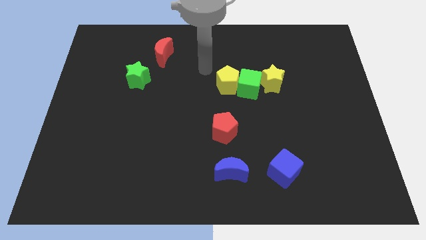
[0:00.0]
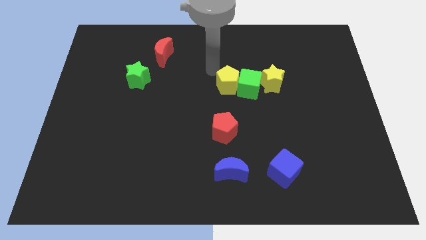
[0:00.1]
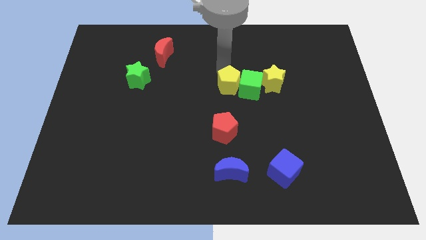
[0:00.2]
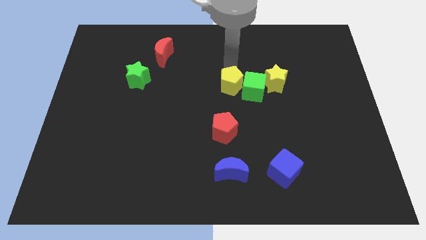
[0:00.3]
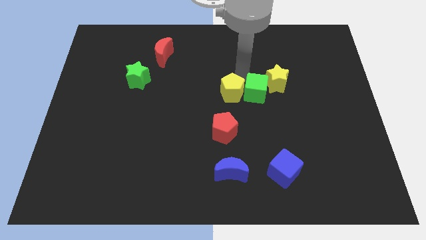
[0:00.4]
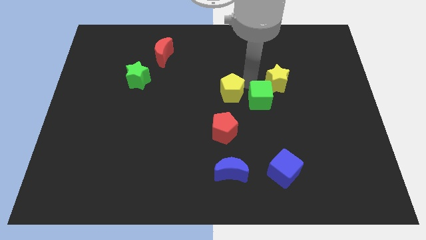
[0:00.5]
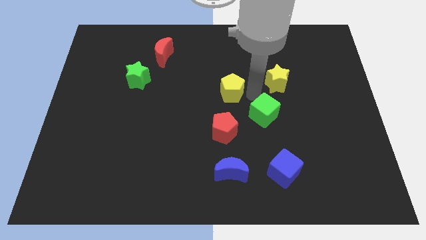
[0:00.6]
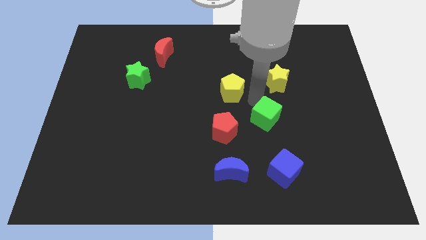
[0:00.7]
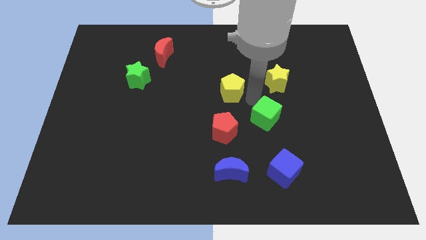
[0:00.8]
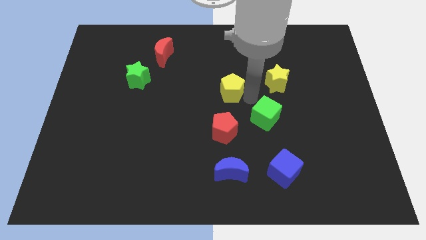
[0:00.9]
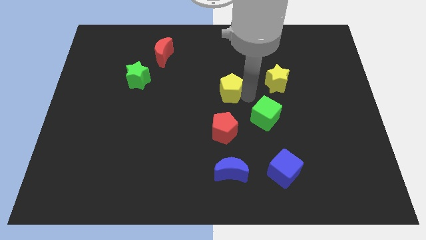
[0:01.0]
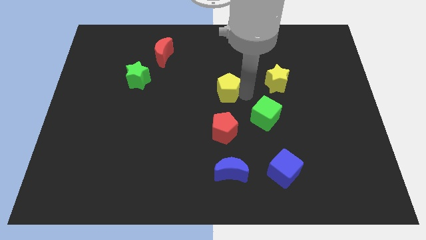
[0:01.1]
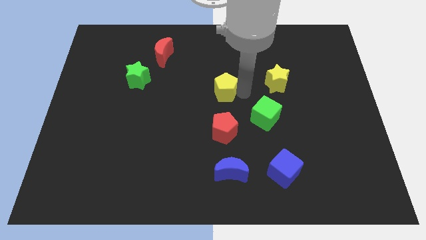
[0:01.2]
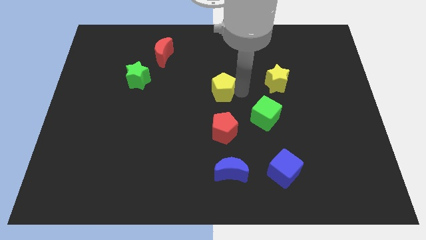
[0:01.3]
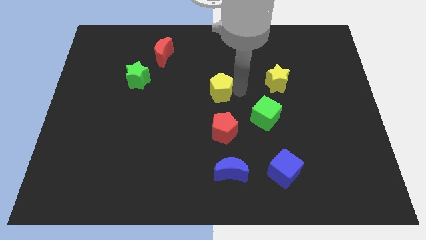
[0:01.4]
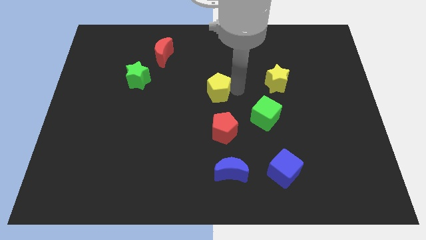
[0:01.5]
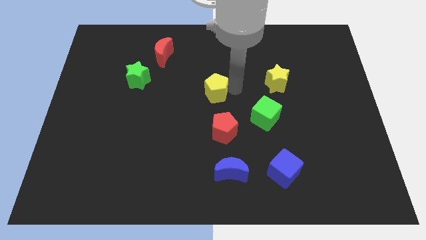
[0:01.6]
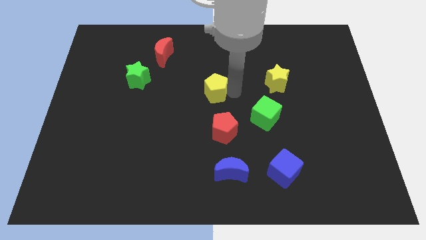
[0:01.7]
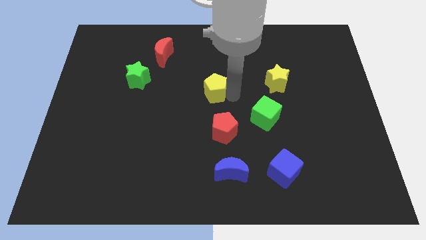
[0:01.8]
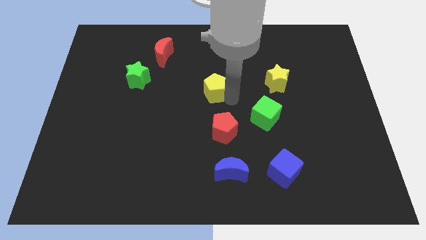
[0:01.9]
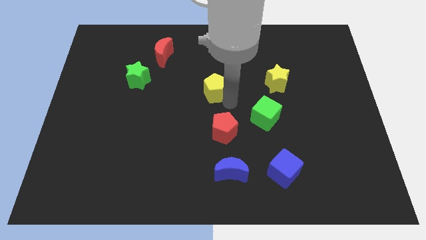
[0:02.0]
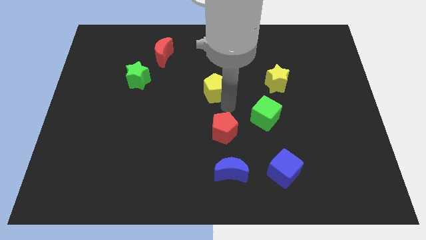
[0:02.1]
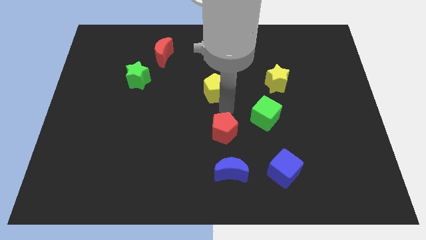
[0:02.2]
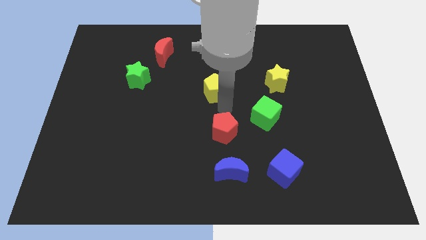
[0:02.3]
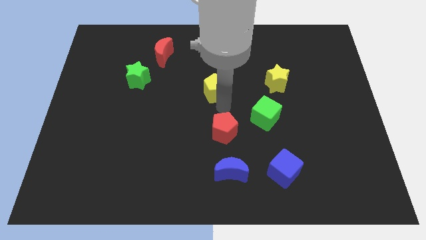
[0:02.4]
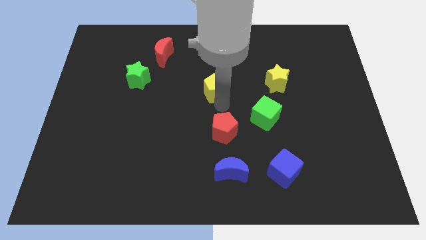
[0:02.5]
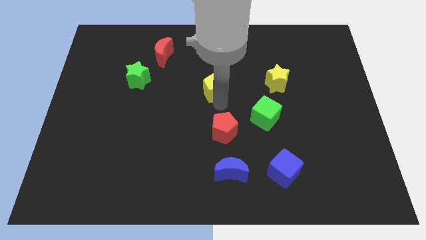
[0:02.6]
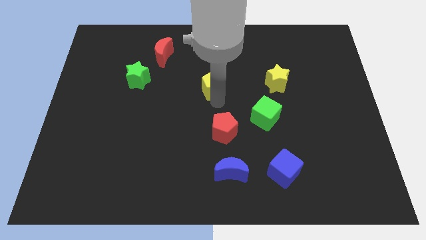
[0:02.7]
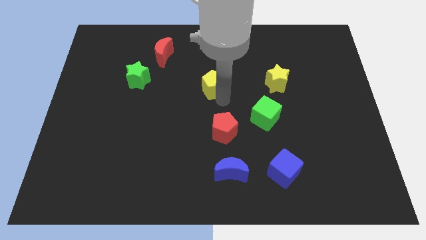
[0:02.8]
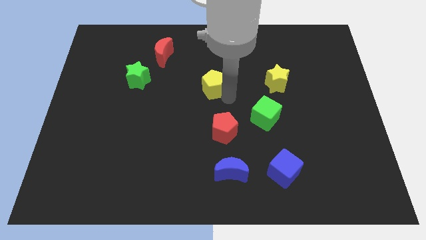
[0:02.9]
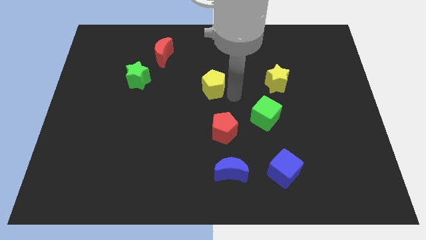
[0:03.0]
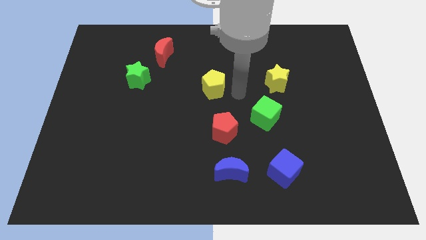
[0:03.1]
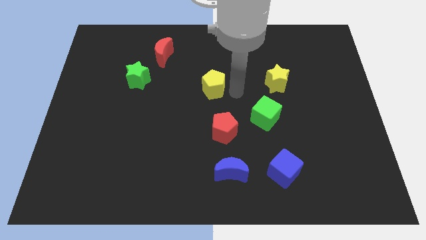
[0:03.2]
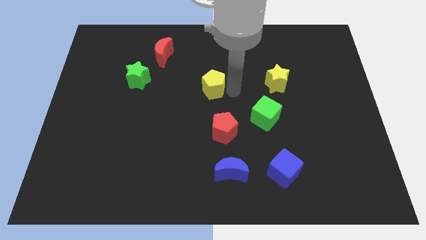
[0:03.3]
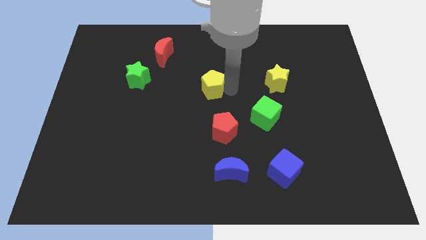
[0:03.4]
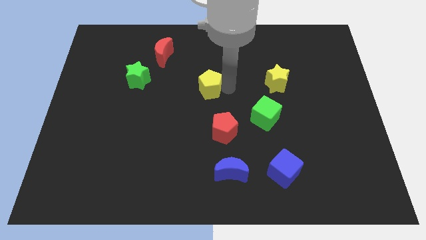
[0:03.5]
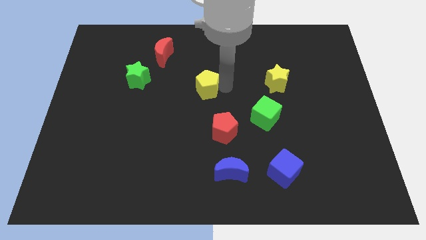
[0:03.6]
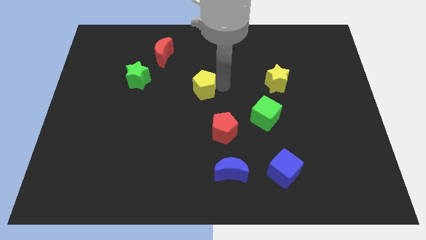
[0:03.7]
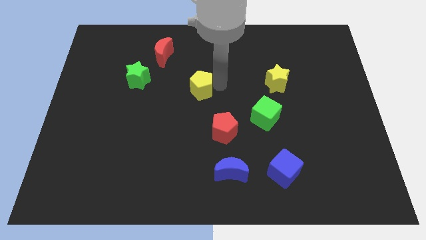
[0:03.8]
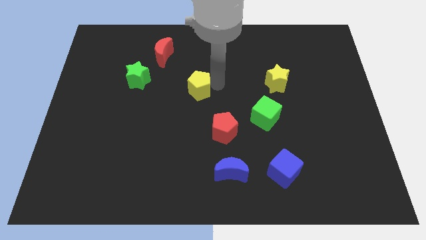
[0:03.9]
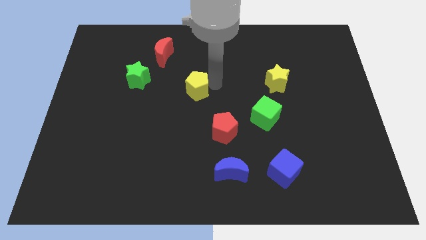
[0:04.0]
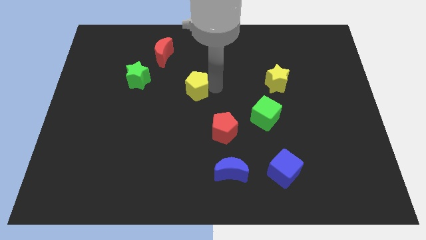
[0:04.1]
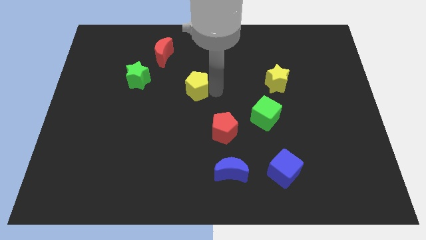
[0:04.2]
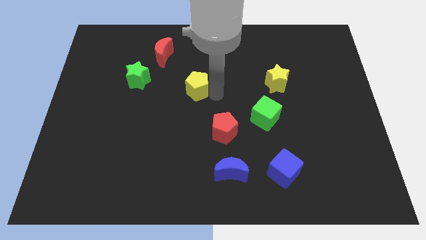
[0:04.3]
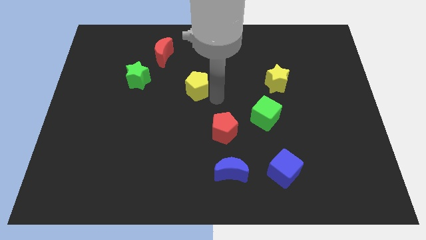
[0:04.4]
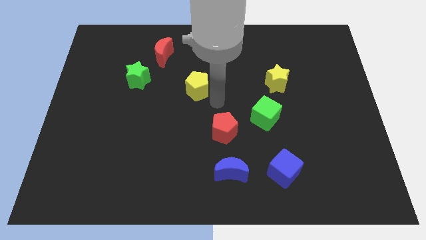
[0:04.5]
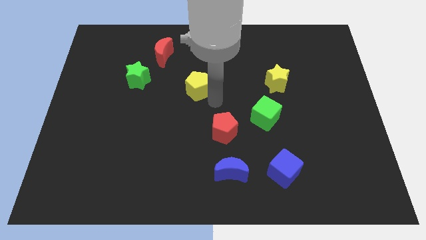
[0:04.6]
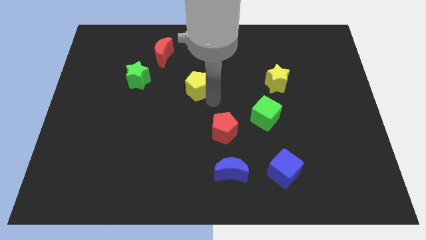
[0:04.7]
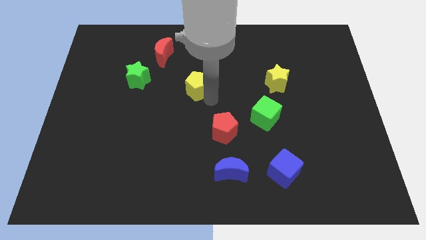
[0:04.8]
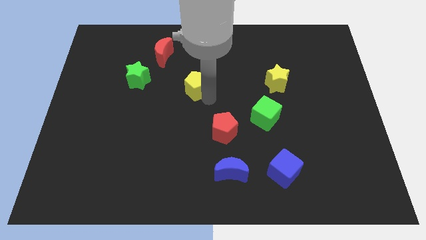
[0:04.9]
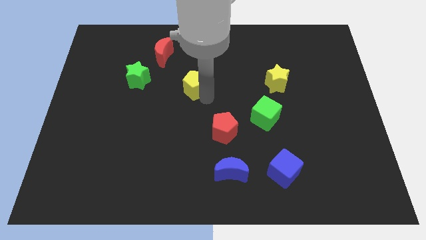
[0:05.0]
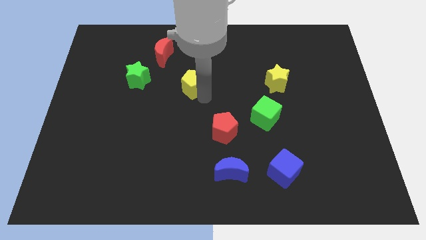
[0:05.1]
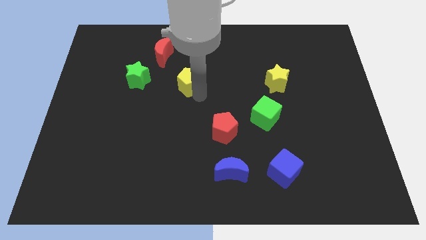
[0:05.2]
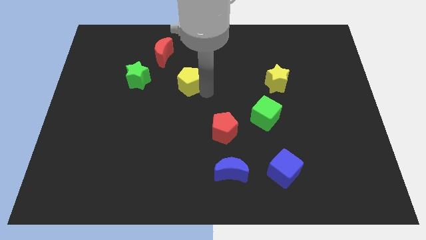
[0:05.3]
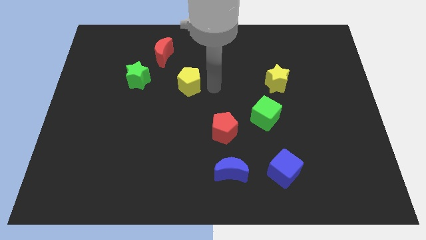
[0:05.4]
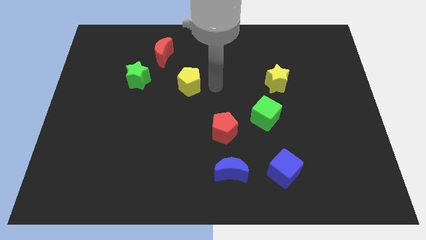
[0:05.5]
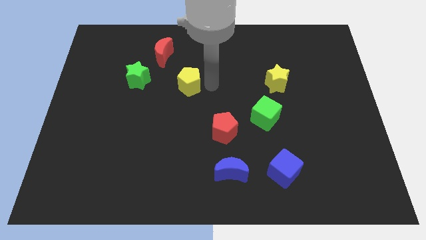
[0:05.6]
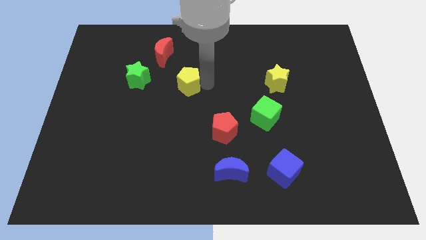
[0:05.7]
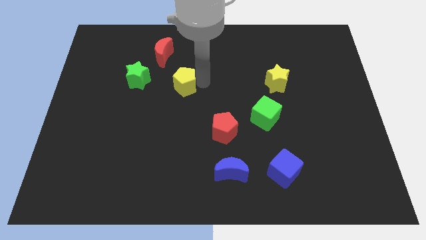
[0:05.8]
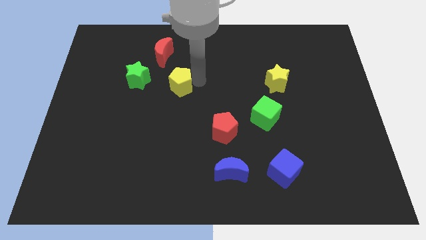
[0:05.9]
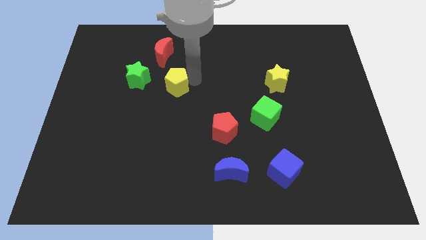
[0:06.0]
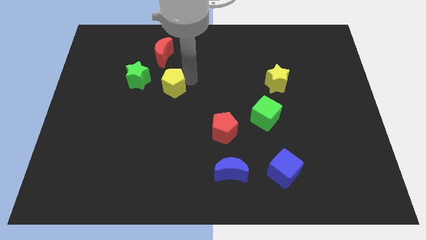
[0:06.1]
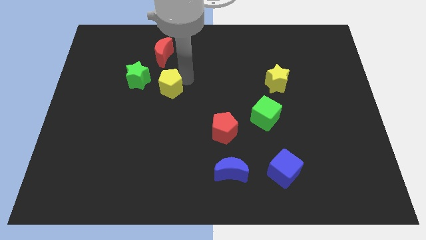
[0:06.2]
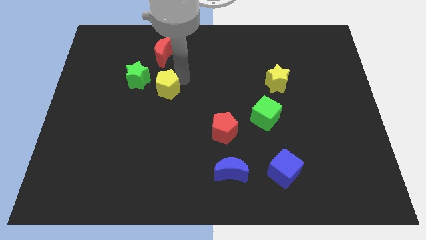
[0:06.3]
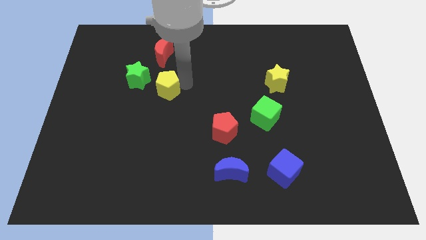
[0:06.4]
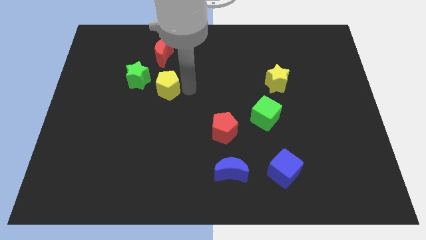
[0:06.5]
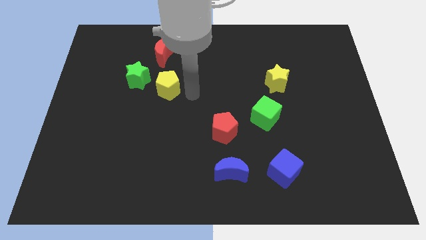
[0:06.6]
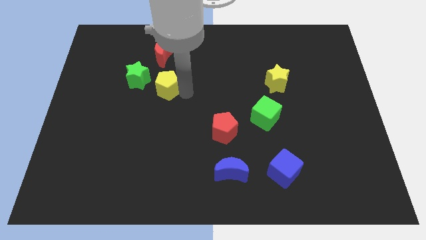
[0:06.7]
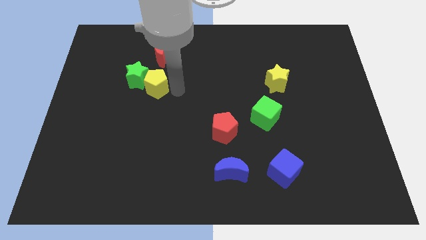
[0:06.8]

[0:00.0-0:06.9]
slide the yellow pentagon towards the green star
